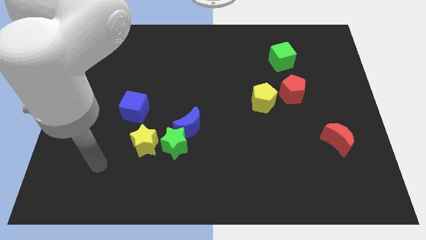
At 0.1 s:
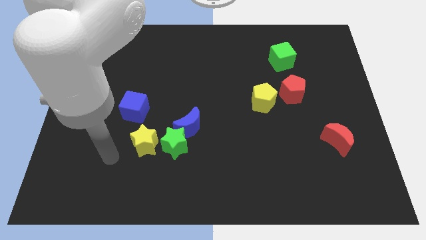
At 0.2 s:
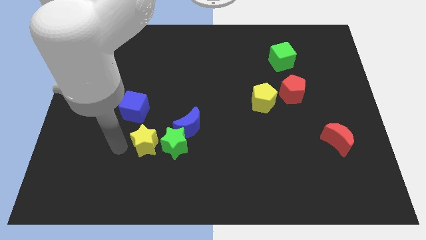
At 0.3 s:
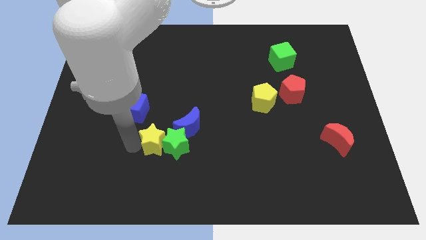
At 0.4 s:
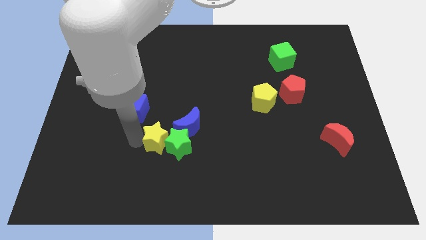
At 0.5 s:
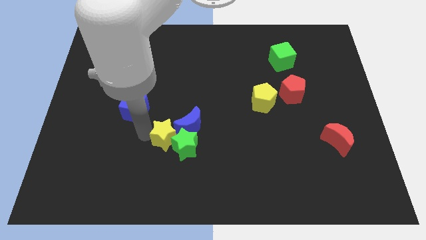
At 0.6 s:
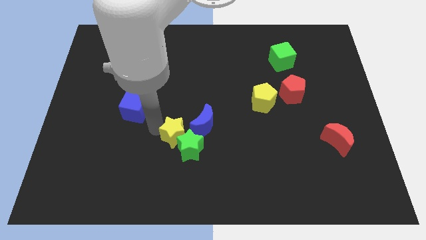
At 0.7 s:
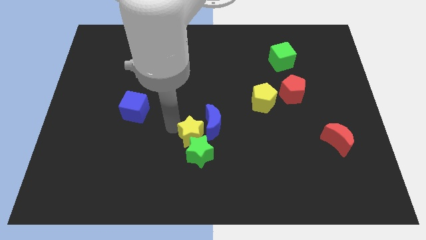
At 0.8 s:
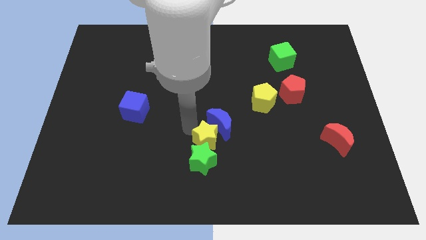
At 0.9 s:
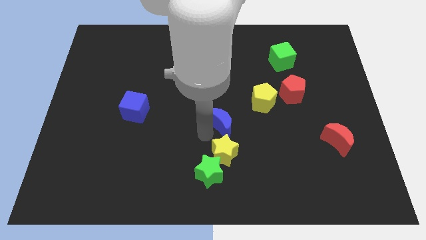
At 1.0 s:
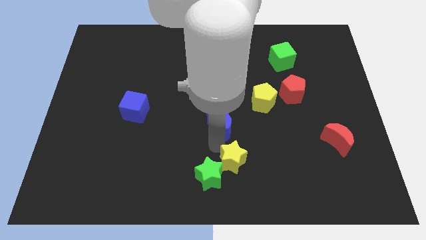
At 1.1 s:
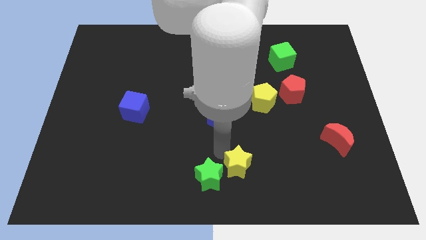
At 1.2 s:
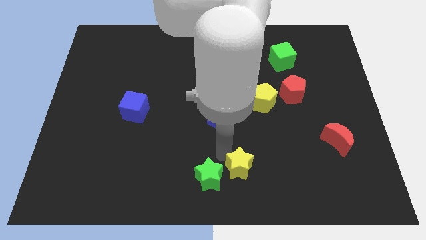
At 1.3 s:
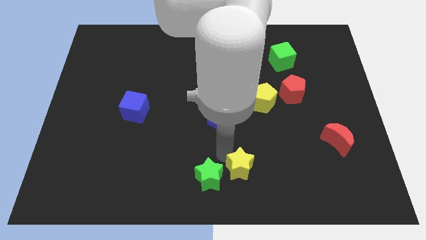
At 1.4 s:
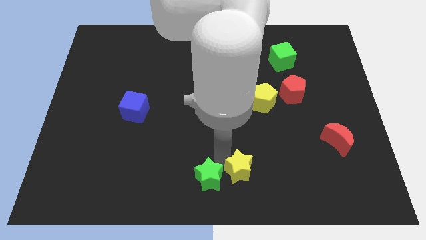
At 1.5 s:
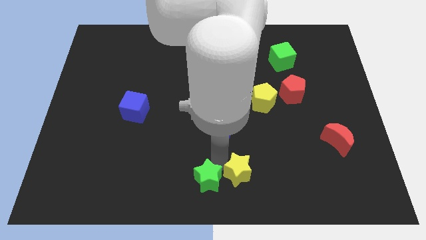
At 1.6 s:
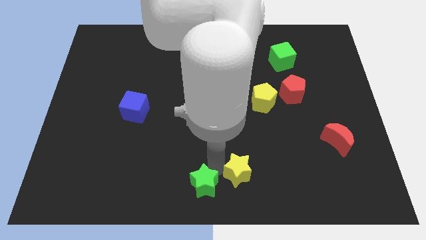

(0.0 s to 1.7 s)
pull the green star apart from the blue moon and yellow star

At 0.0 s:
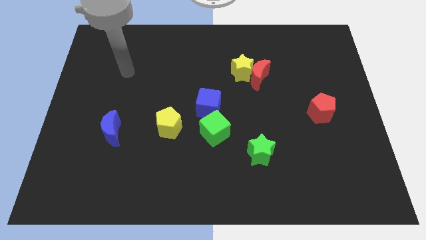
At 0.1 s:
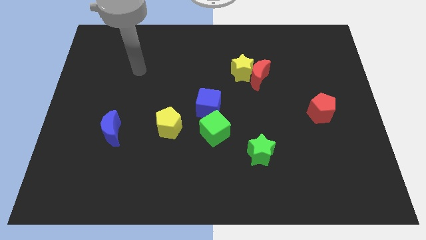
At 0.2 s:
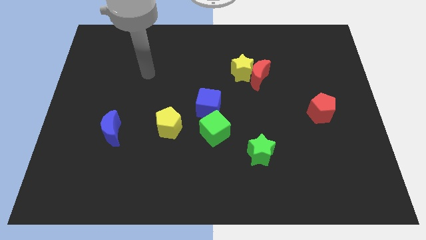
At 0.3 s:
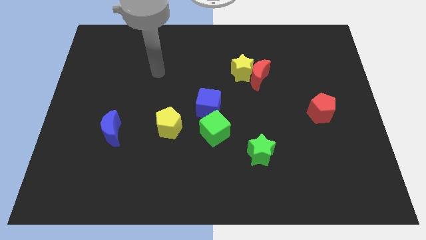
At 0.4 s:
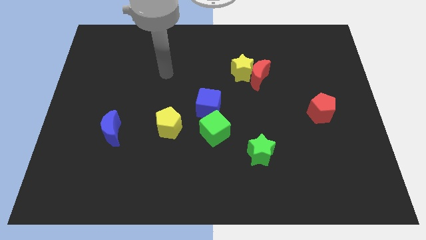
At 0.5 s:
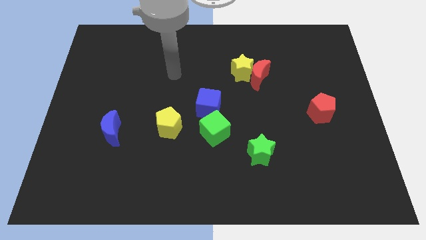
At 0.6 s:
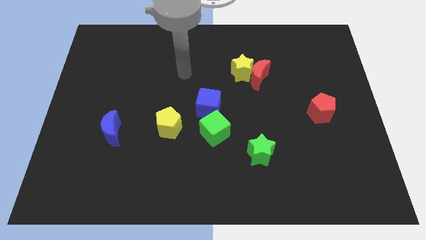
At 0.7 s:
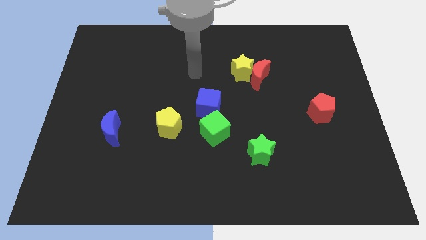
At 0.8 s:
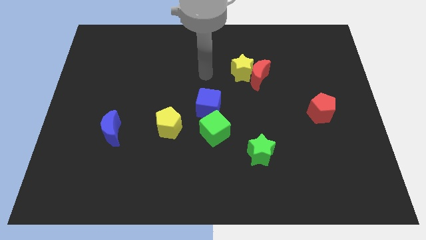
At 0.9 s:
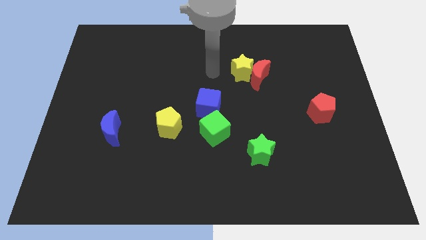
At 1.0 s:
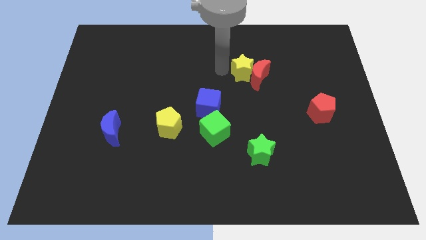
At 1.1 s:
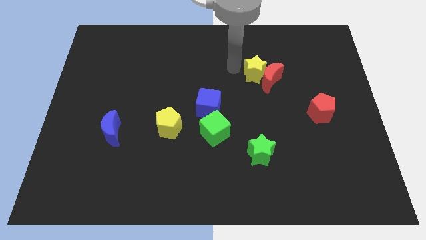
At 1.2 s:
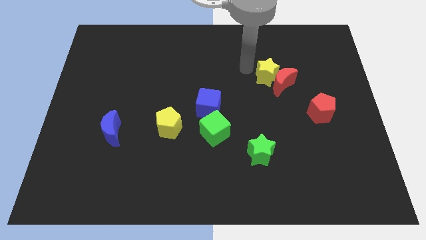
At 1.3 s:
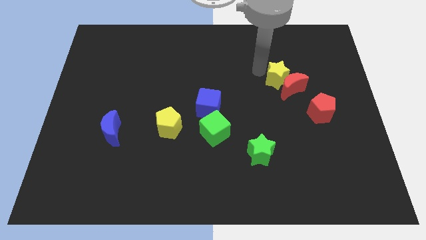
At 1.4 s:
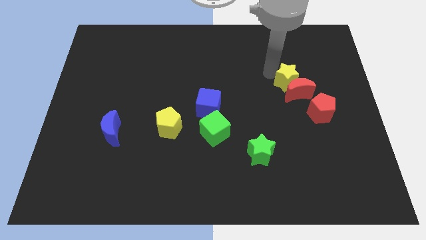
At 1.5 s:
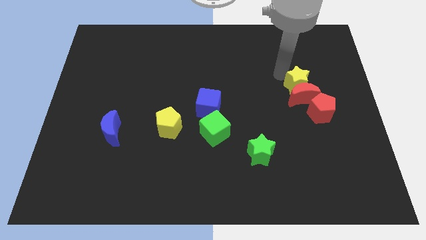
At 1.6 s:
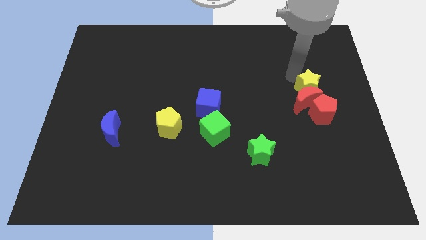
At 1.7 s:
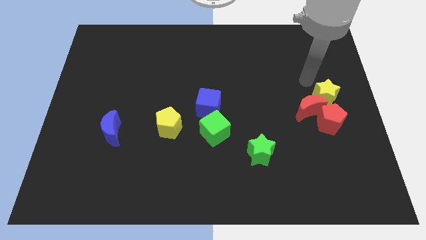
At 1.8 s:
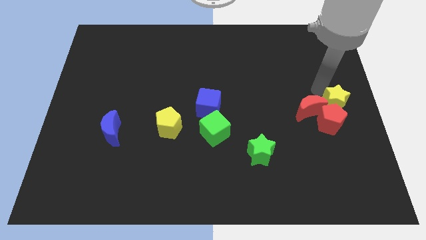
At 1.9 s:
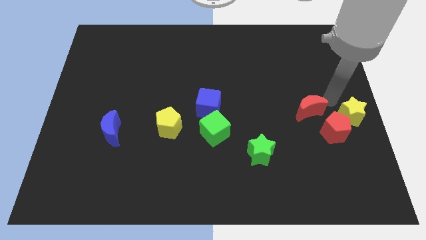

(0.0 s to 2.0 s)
move the red moon away from the yellow star

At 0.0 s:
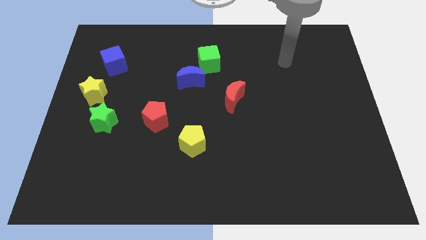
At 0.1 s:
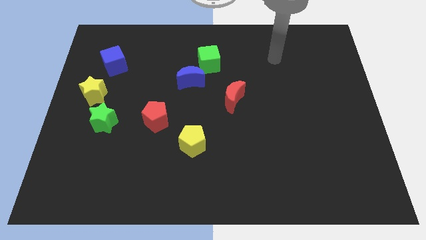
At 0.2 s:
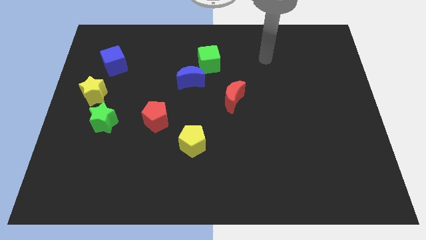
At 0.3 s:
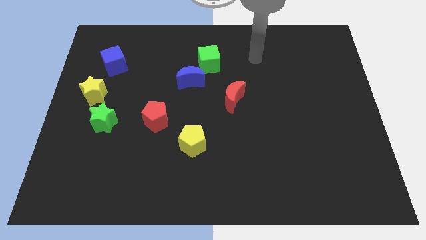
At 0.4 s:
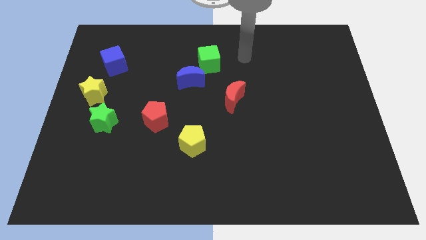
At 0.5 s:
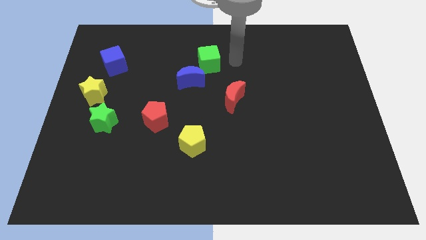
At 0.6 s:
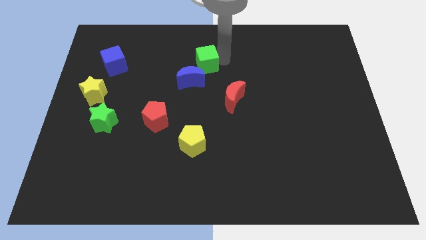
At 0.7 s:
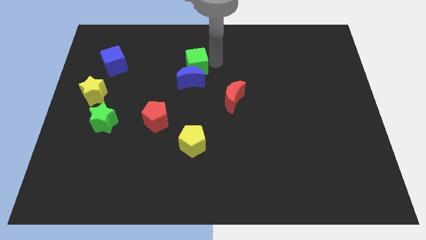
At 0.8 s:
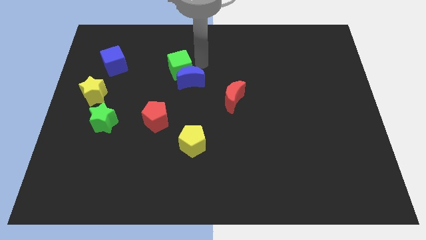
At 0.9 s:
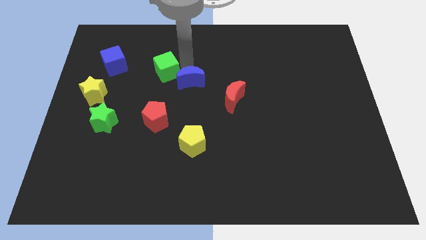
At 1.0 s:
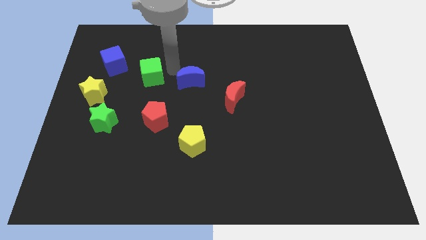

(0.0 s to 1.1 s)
separate the blue moon from the green cube

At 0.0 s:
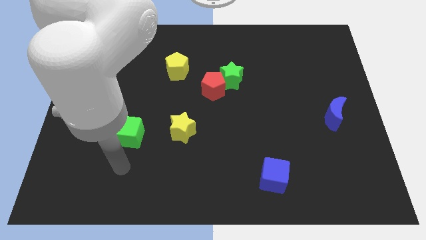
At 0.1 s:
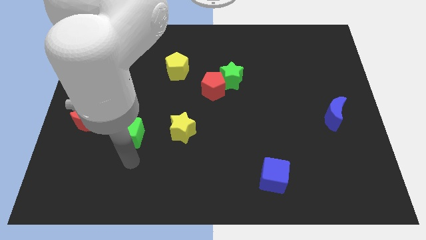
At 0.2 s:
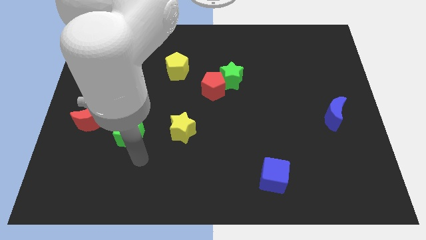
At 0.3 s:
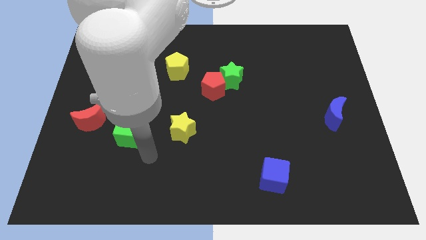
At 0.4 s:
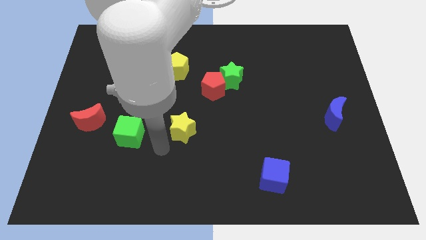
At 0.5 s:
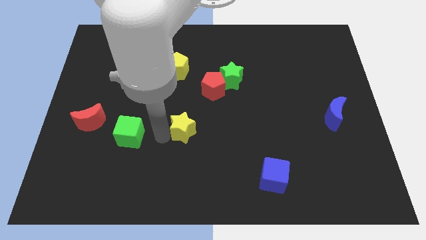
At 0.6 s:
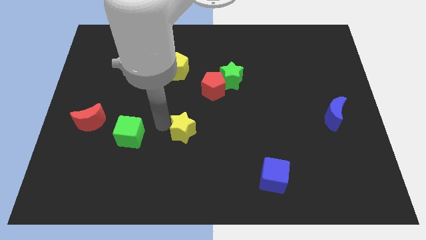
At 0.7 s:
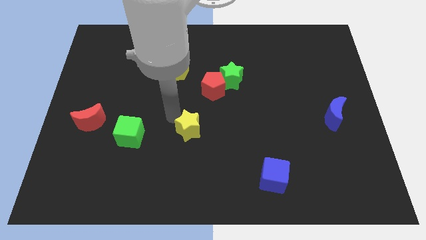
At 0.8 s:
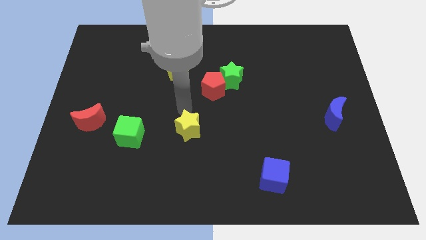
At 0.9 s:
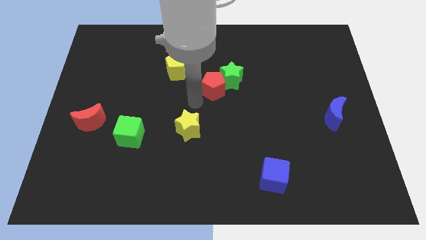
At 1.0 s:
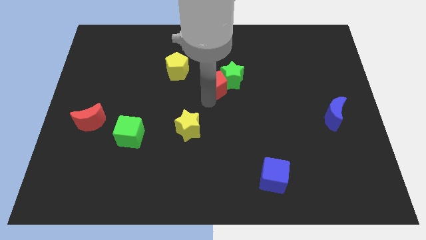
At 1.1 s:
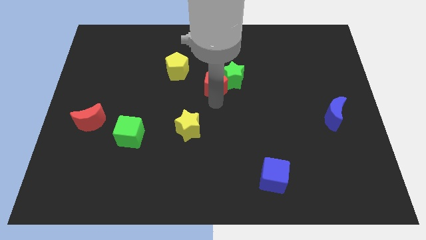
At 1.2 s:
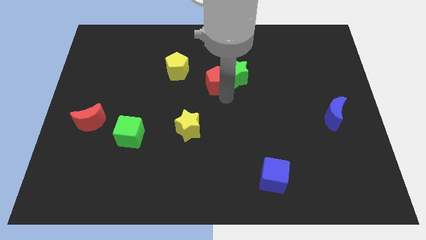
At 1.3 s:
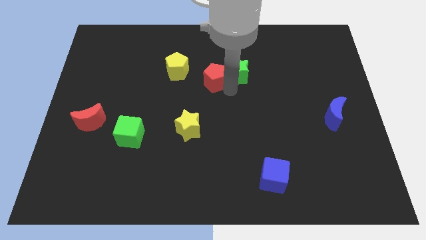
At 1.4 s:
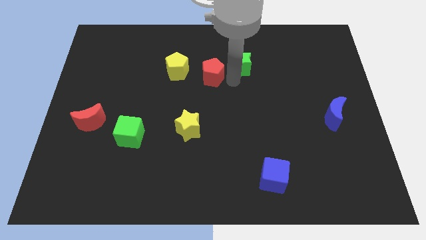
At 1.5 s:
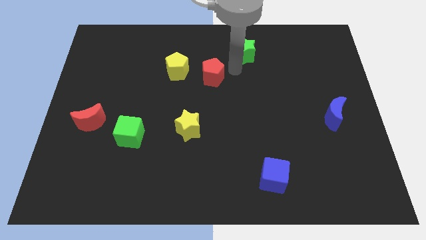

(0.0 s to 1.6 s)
pull the red pentagon apart from the green star

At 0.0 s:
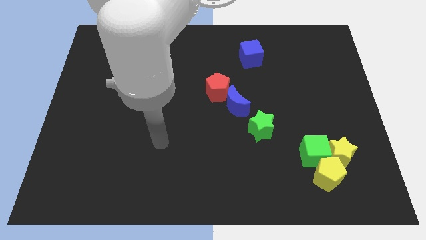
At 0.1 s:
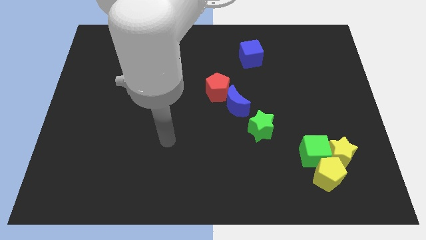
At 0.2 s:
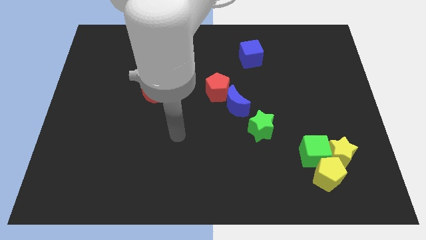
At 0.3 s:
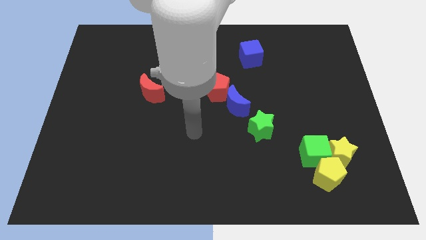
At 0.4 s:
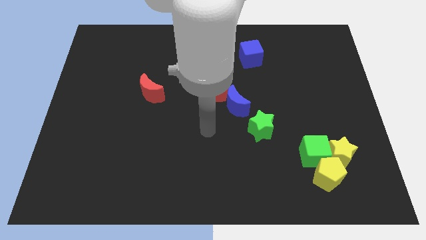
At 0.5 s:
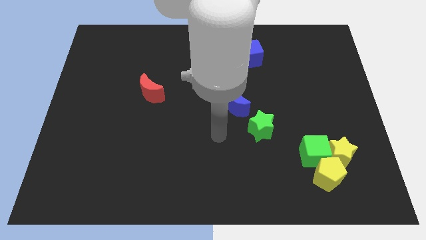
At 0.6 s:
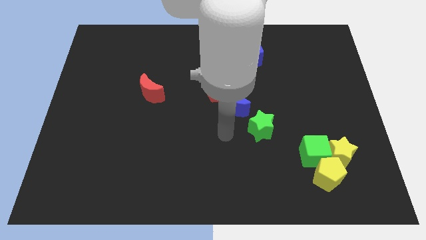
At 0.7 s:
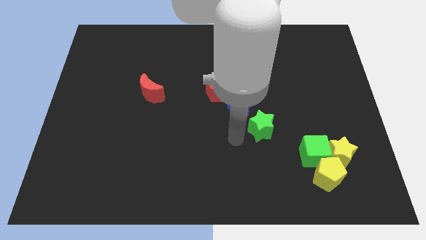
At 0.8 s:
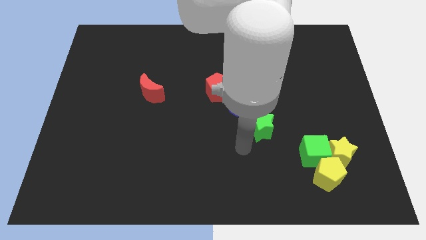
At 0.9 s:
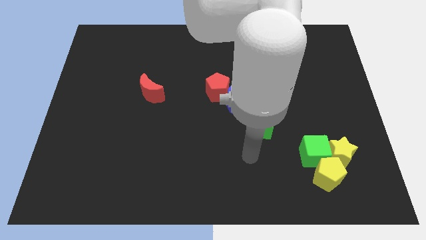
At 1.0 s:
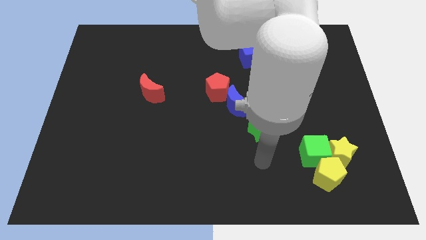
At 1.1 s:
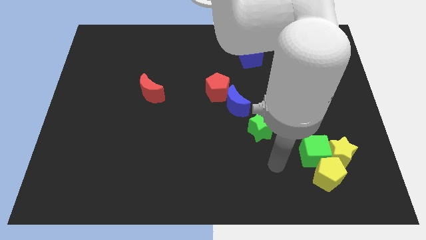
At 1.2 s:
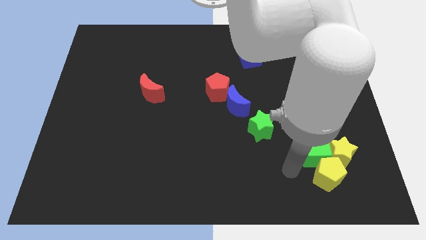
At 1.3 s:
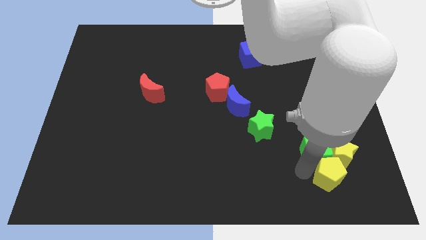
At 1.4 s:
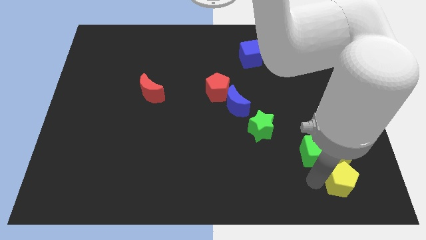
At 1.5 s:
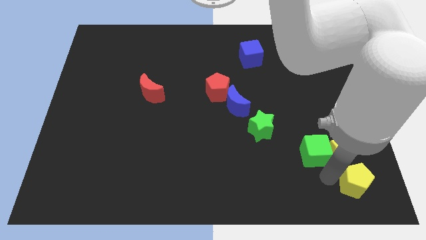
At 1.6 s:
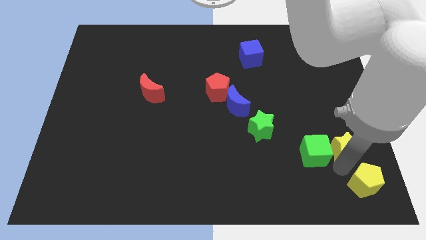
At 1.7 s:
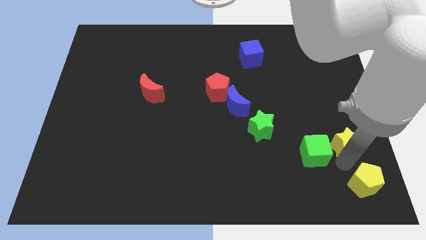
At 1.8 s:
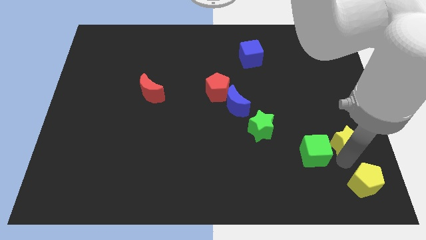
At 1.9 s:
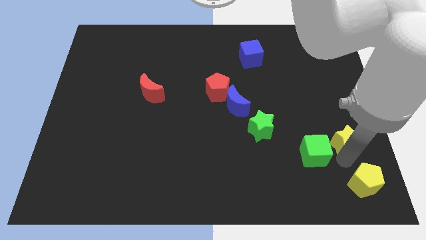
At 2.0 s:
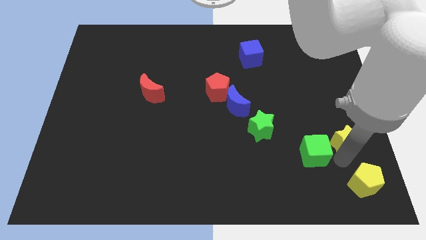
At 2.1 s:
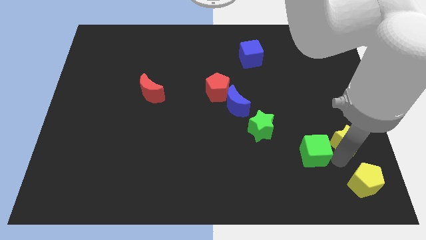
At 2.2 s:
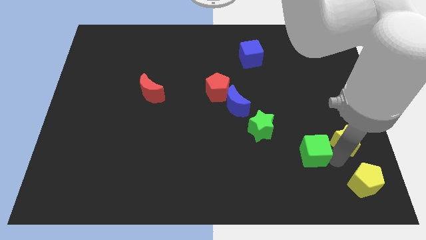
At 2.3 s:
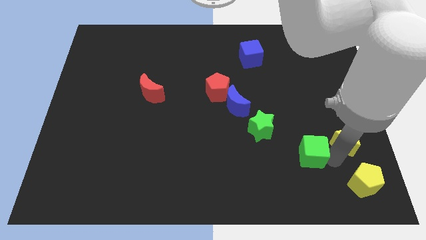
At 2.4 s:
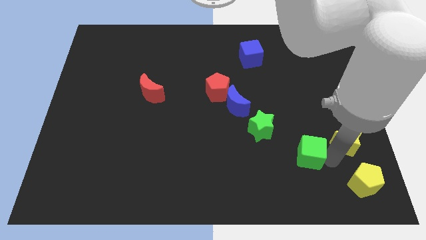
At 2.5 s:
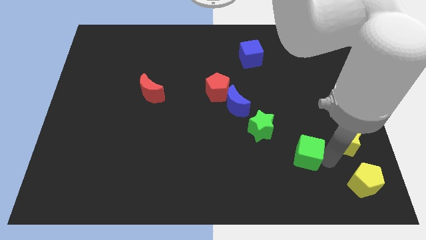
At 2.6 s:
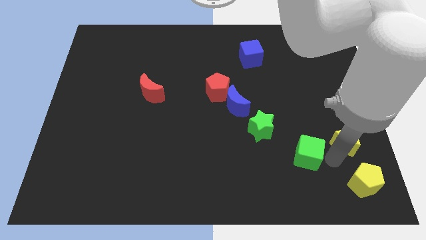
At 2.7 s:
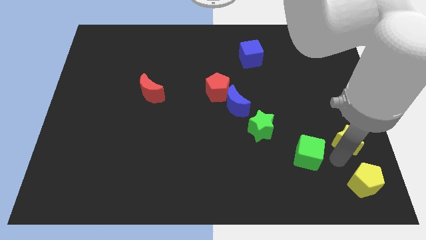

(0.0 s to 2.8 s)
pull the green cube apart from the yellow star and yellow pentagon
